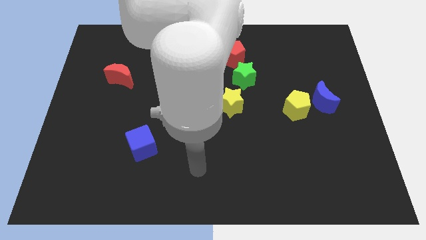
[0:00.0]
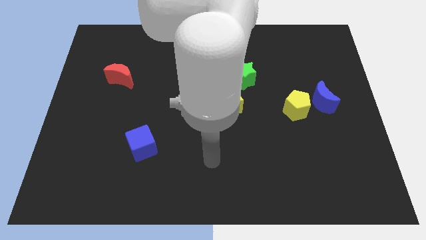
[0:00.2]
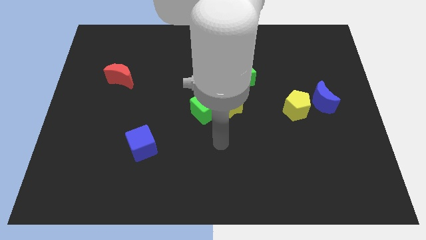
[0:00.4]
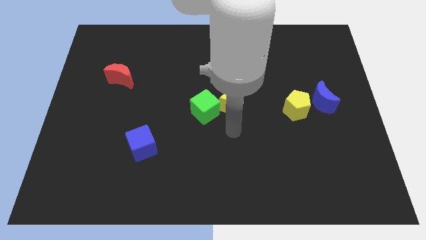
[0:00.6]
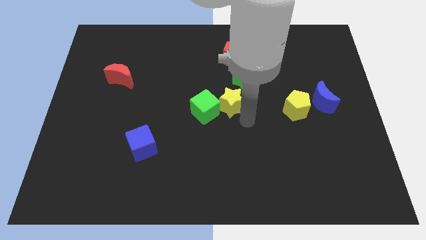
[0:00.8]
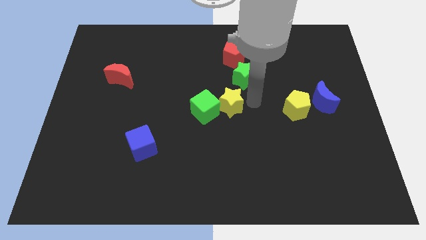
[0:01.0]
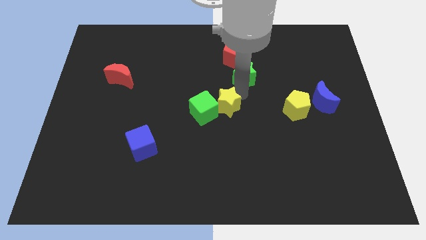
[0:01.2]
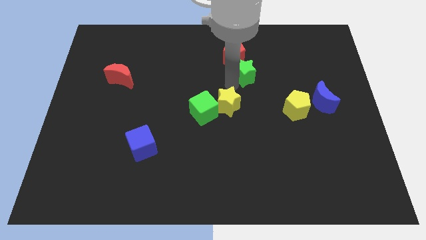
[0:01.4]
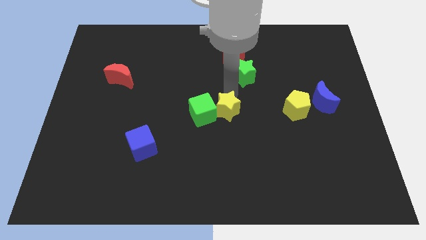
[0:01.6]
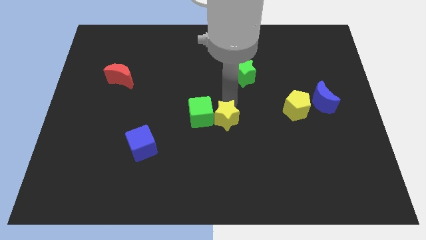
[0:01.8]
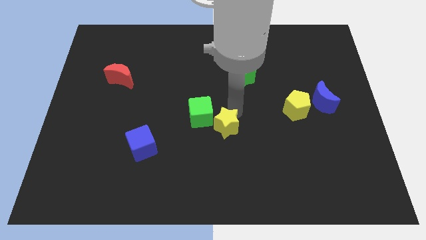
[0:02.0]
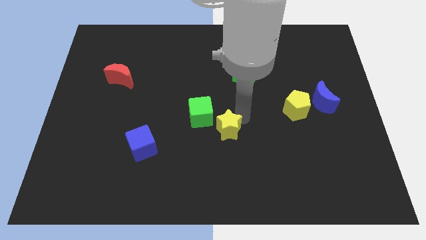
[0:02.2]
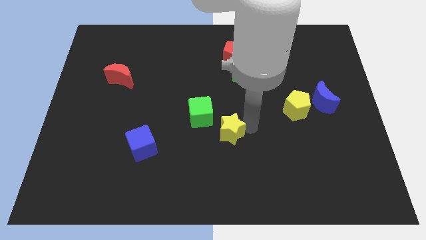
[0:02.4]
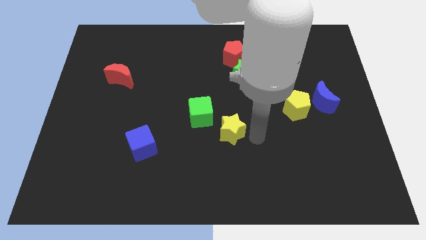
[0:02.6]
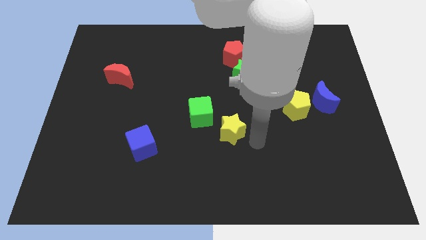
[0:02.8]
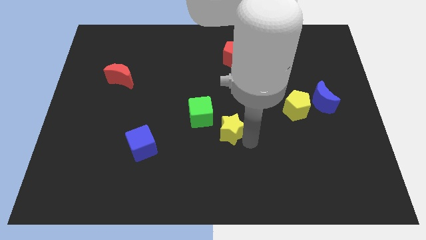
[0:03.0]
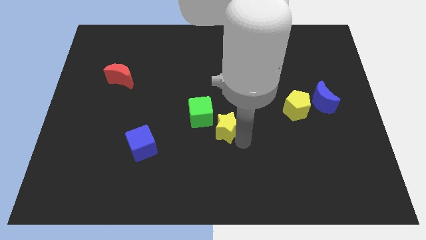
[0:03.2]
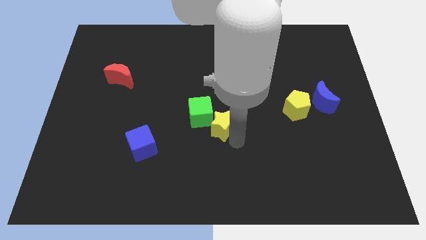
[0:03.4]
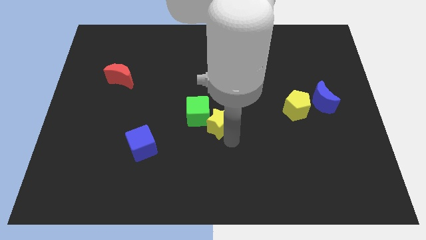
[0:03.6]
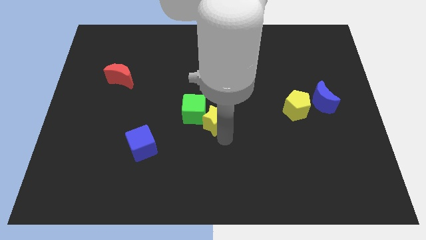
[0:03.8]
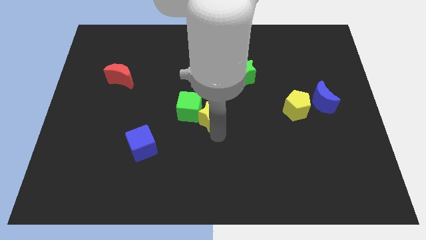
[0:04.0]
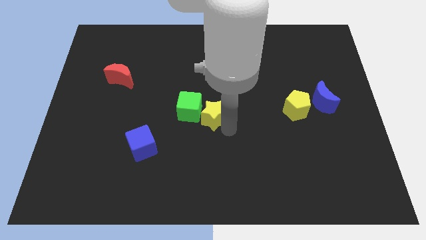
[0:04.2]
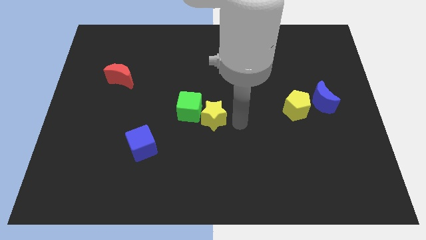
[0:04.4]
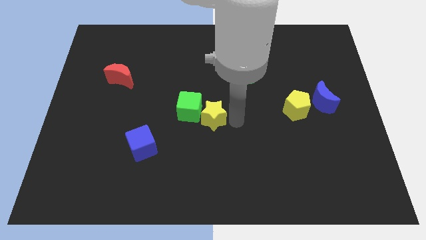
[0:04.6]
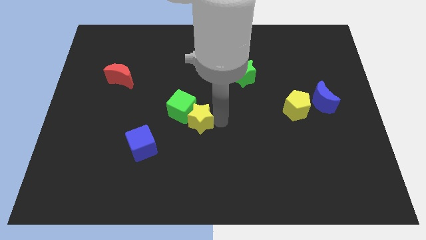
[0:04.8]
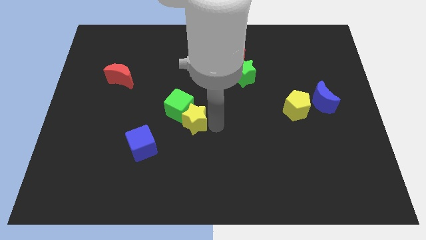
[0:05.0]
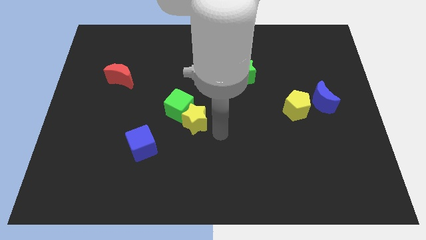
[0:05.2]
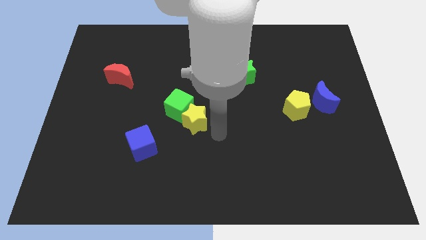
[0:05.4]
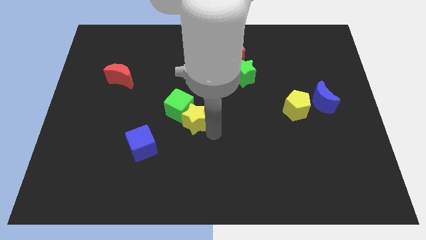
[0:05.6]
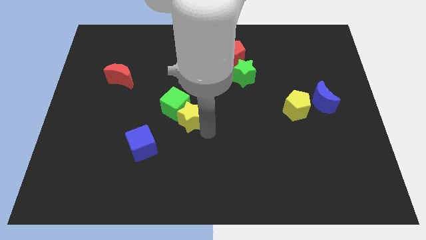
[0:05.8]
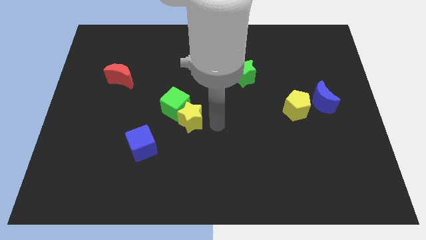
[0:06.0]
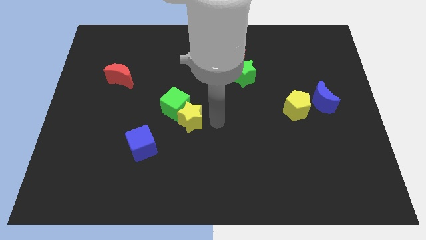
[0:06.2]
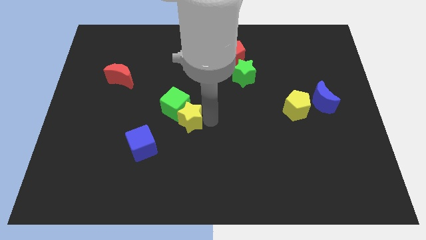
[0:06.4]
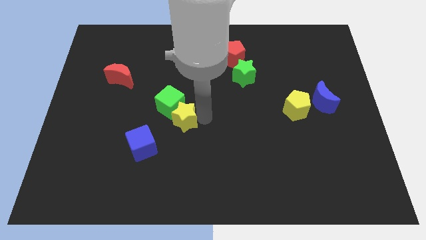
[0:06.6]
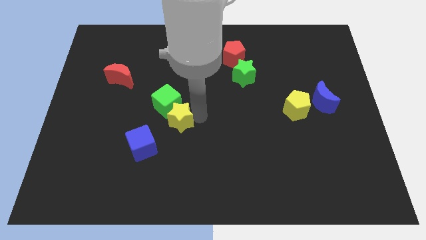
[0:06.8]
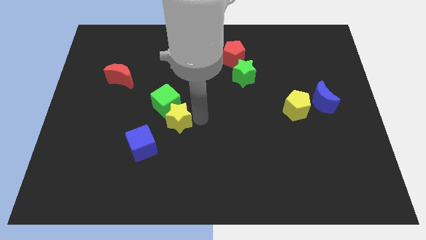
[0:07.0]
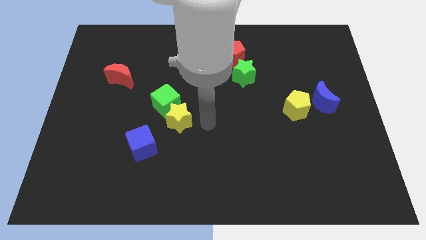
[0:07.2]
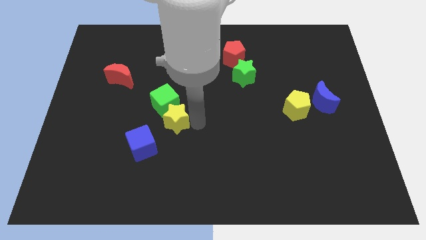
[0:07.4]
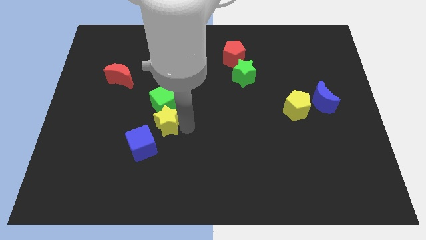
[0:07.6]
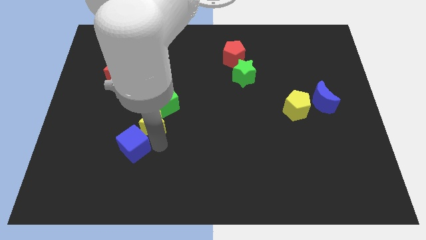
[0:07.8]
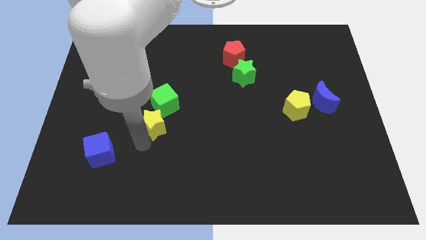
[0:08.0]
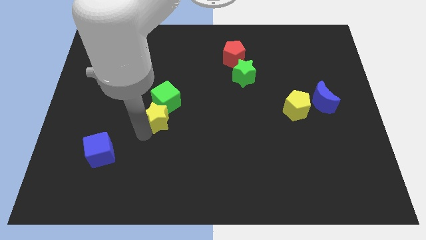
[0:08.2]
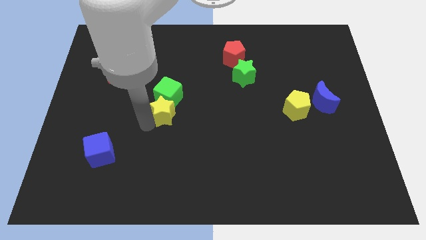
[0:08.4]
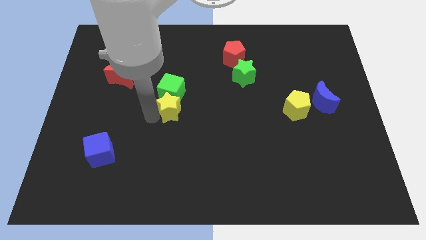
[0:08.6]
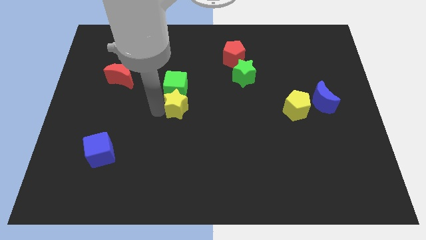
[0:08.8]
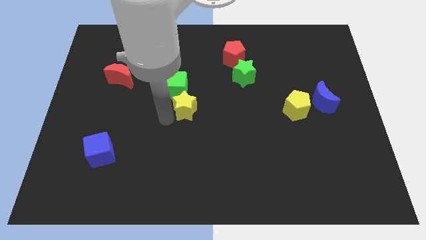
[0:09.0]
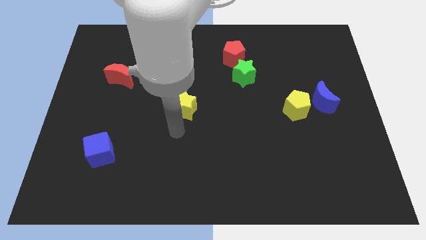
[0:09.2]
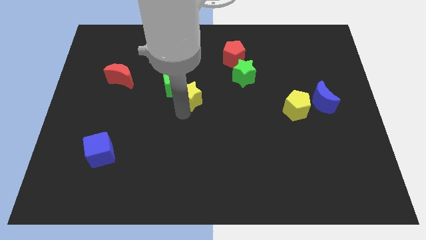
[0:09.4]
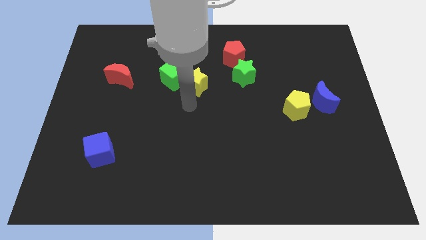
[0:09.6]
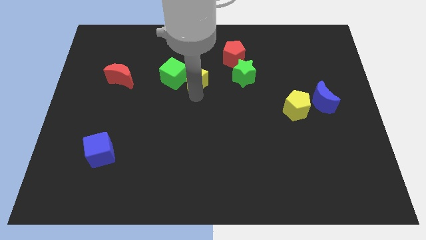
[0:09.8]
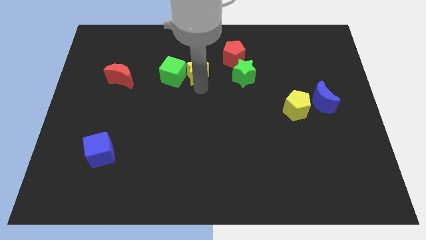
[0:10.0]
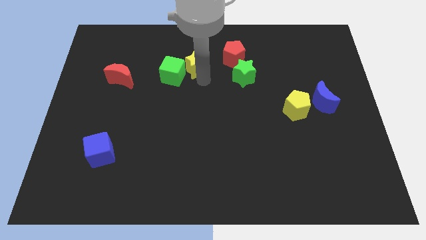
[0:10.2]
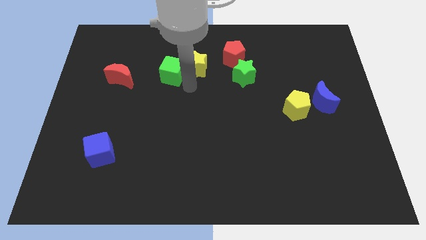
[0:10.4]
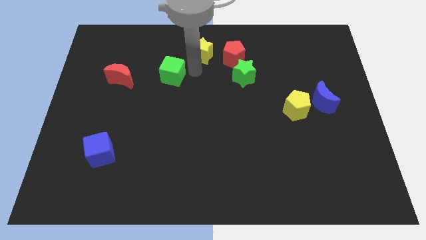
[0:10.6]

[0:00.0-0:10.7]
push the yellow star to the towards your base

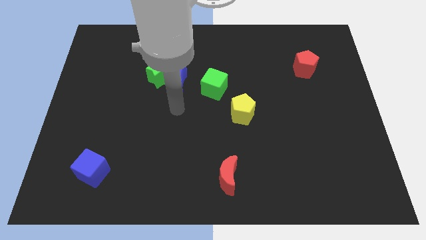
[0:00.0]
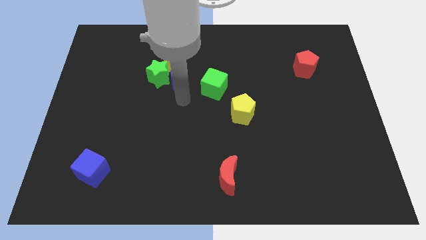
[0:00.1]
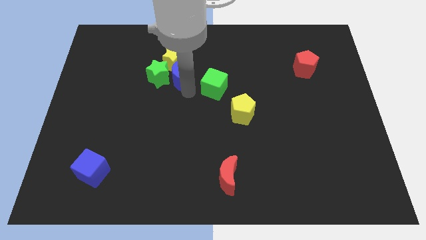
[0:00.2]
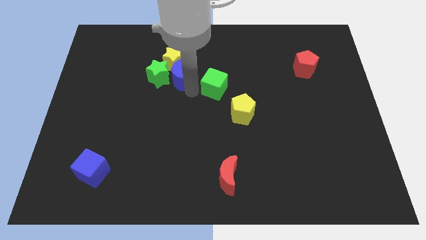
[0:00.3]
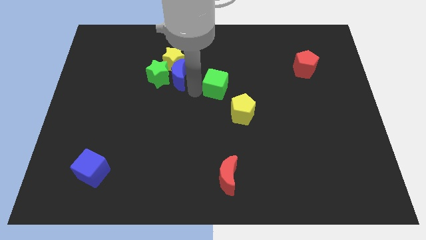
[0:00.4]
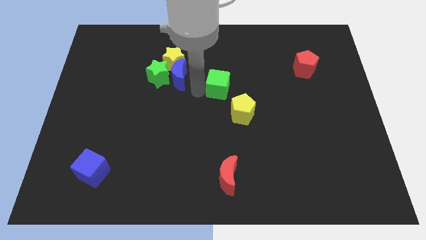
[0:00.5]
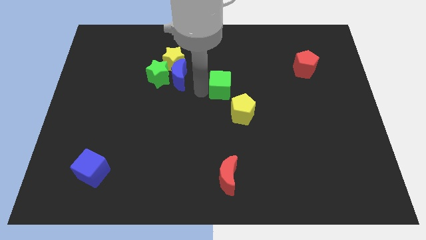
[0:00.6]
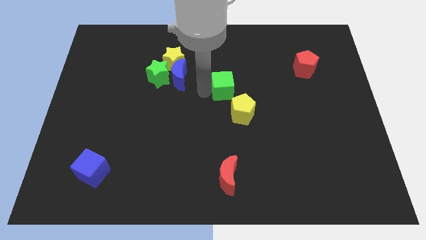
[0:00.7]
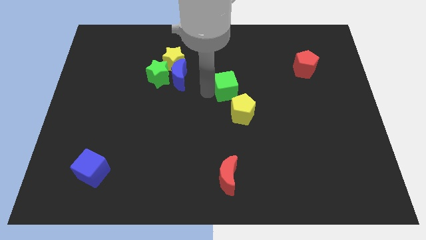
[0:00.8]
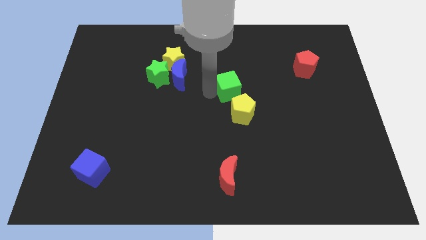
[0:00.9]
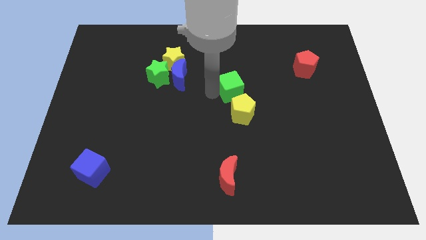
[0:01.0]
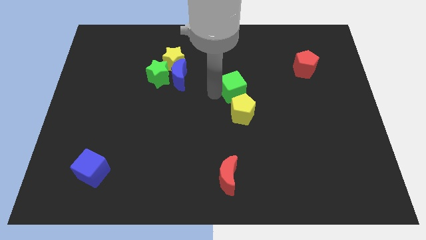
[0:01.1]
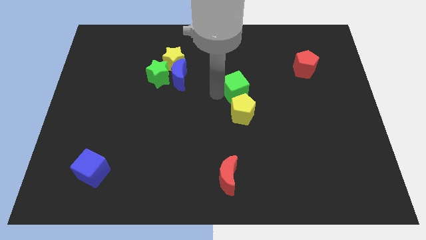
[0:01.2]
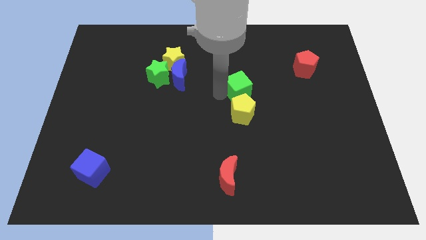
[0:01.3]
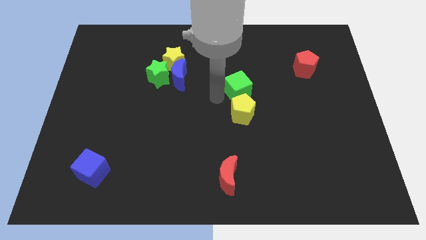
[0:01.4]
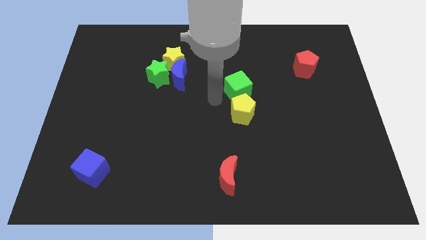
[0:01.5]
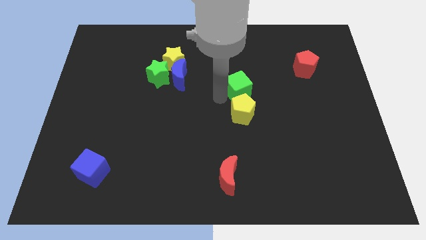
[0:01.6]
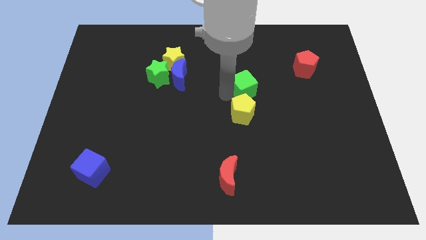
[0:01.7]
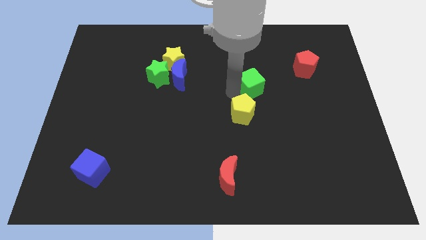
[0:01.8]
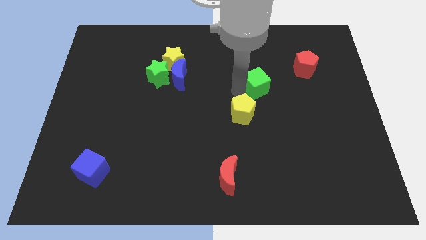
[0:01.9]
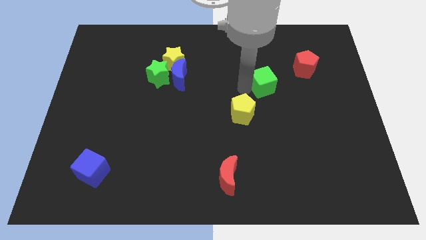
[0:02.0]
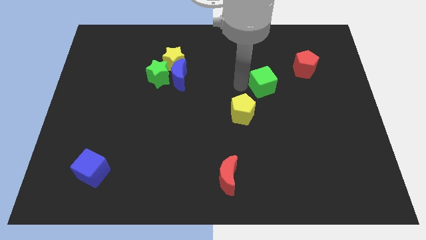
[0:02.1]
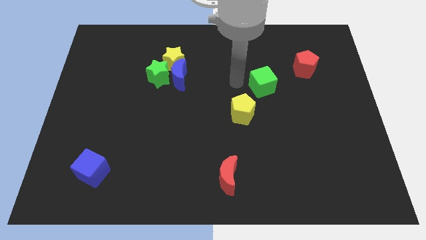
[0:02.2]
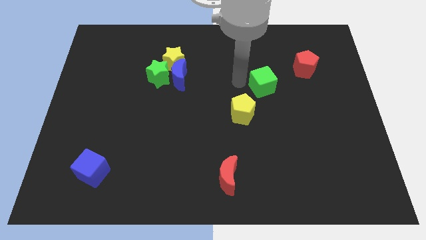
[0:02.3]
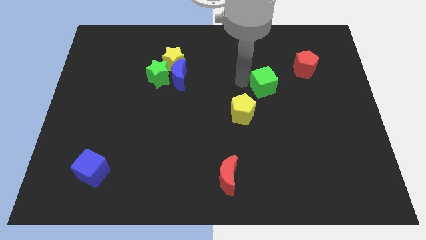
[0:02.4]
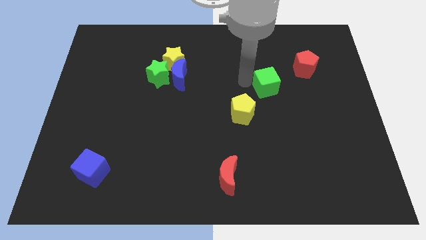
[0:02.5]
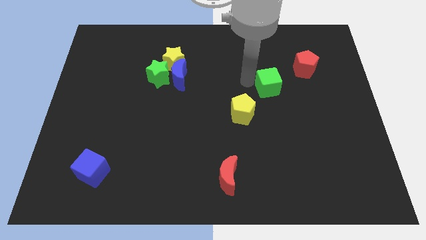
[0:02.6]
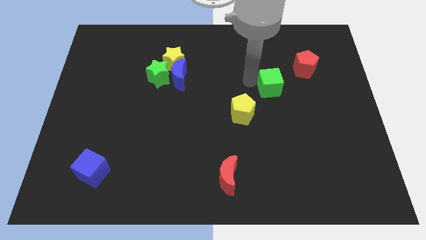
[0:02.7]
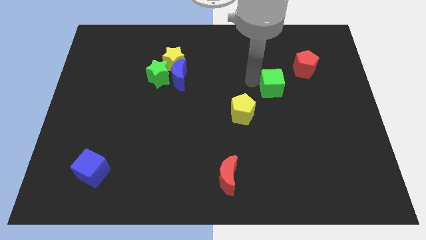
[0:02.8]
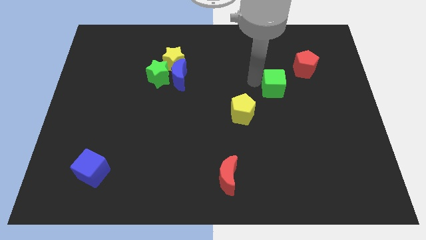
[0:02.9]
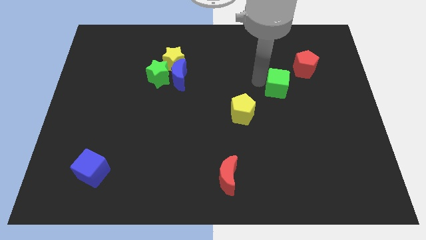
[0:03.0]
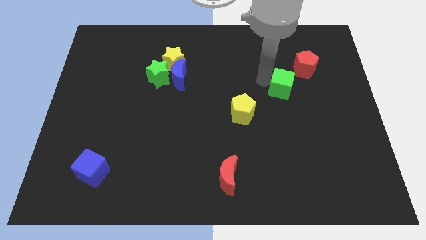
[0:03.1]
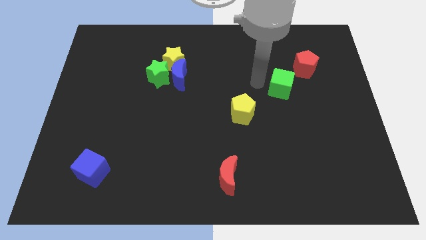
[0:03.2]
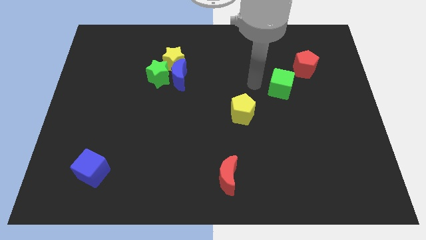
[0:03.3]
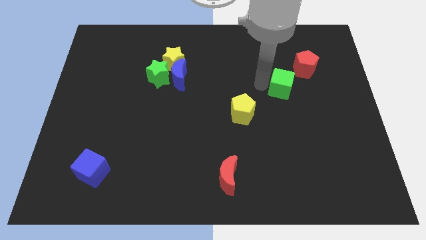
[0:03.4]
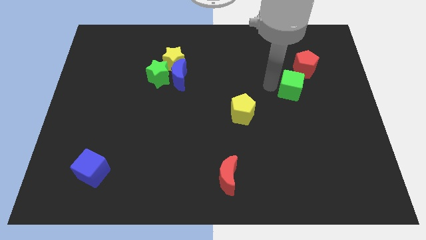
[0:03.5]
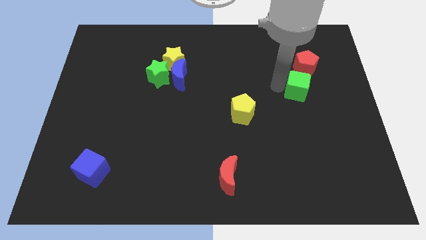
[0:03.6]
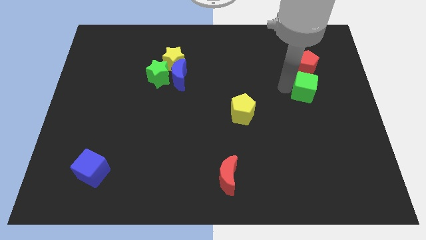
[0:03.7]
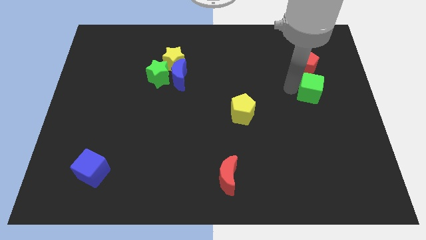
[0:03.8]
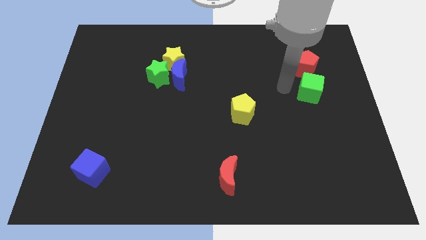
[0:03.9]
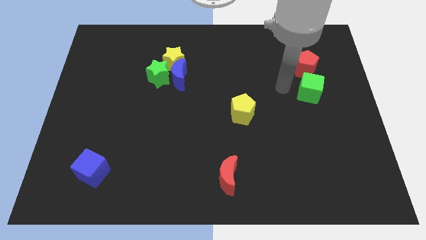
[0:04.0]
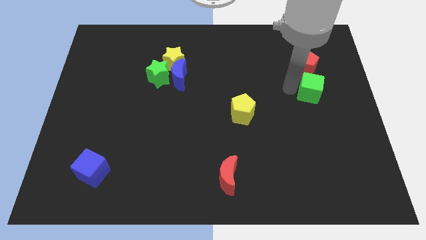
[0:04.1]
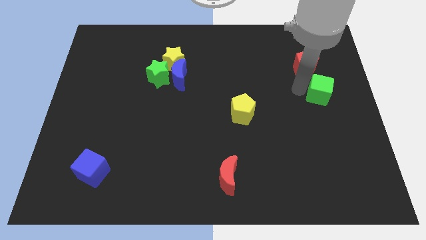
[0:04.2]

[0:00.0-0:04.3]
slide the green cube to the center right
